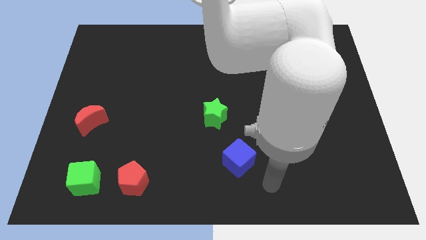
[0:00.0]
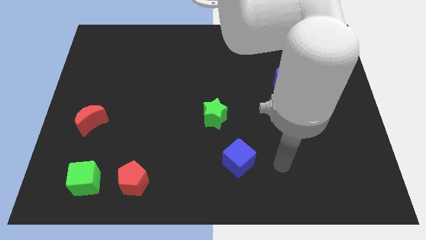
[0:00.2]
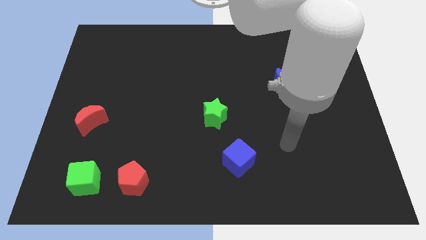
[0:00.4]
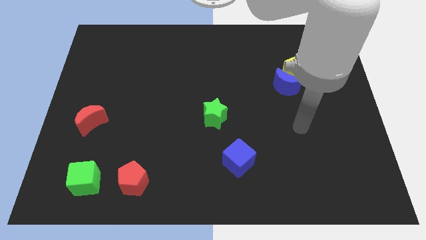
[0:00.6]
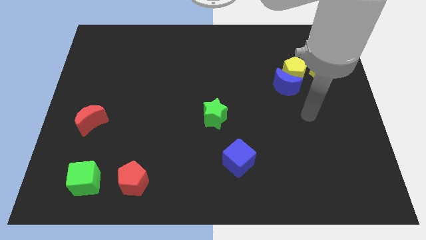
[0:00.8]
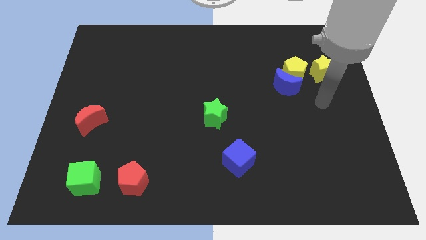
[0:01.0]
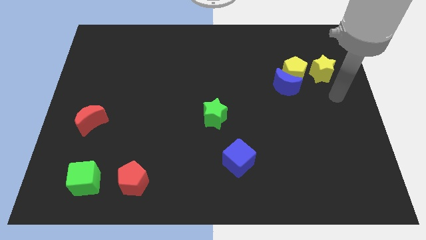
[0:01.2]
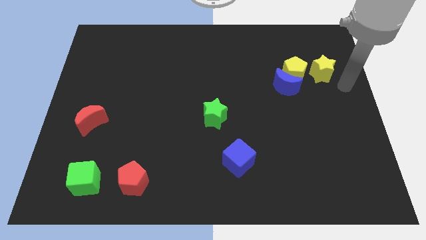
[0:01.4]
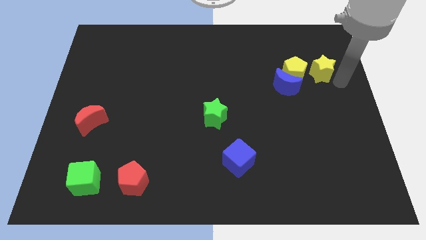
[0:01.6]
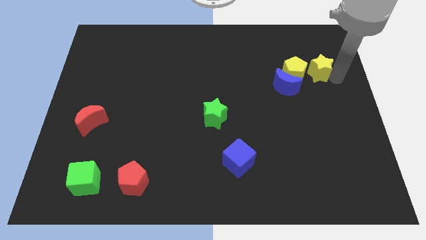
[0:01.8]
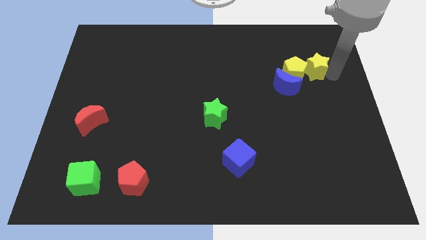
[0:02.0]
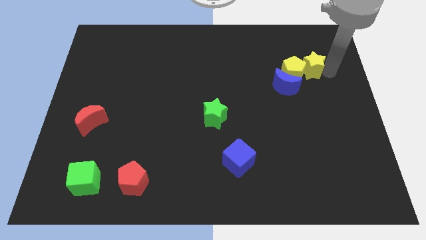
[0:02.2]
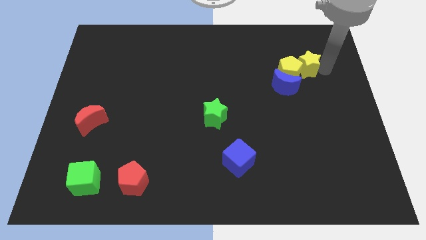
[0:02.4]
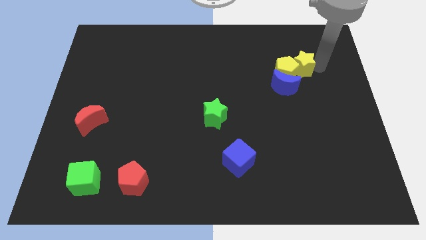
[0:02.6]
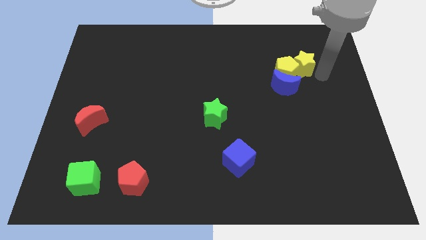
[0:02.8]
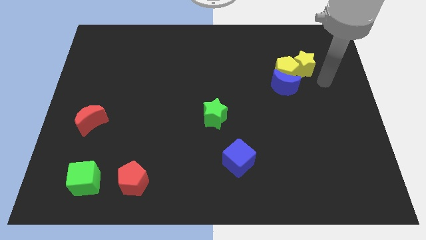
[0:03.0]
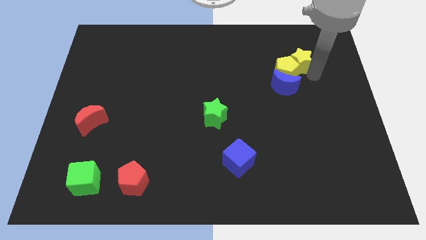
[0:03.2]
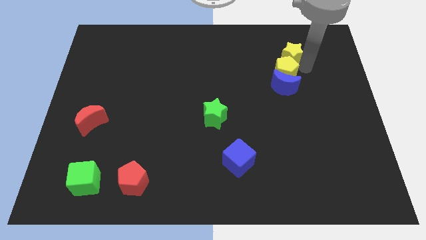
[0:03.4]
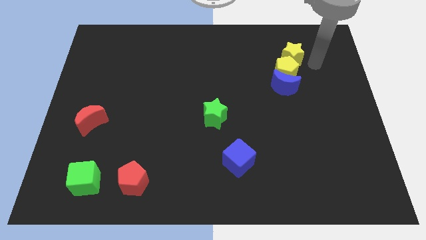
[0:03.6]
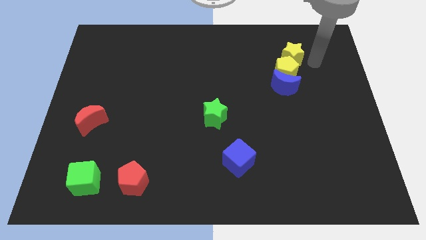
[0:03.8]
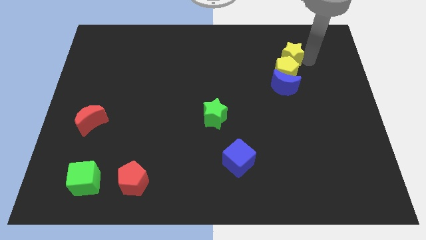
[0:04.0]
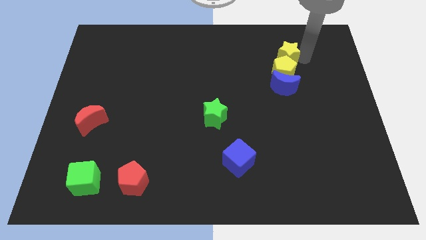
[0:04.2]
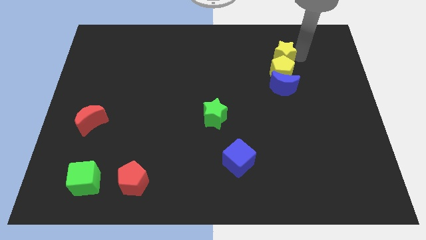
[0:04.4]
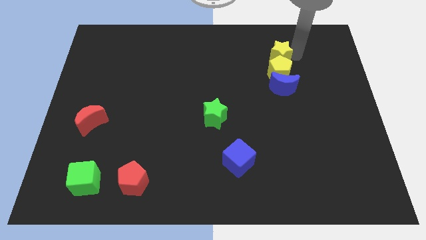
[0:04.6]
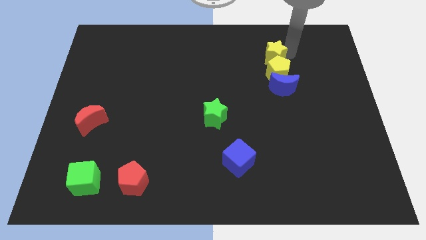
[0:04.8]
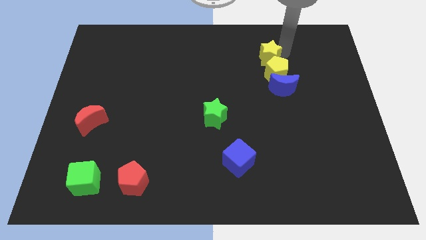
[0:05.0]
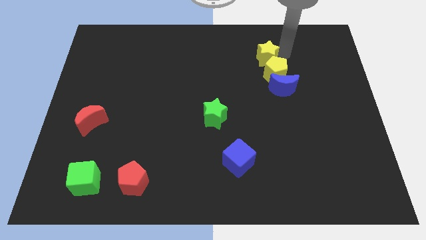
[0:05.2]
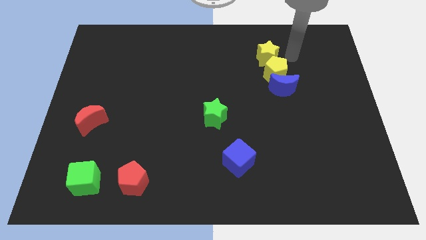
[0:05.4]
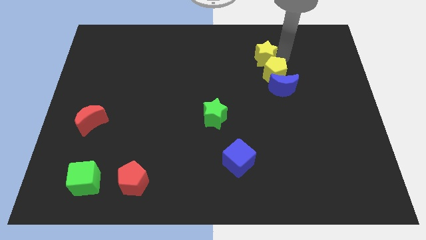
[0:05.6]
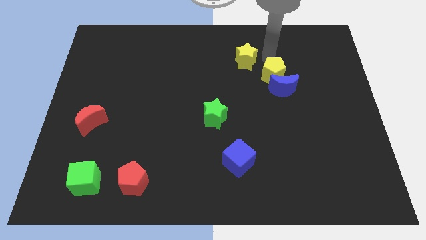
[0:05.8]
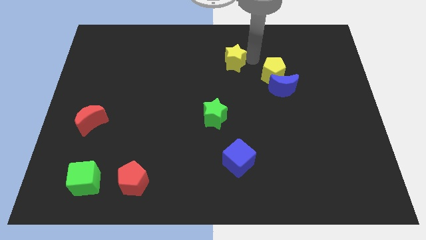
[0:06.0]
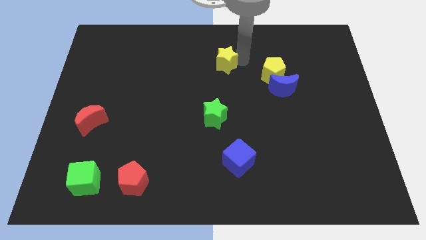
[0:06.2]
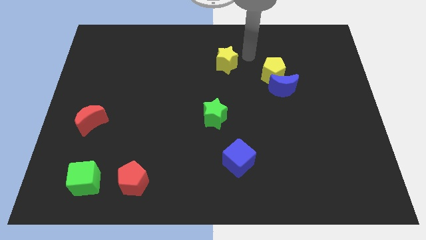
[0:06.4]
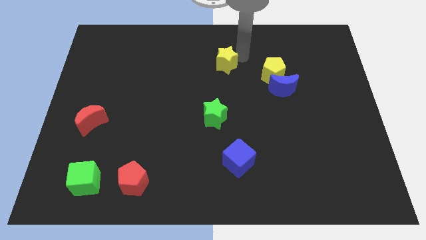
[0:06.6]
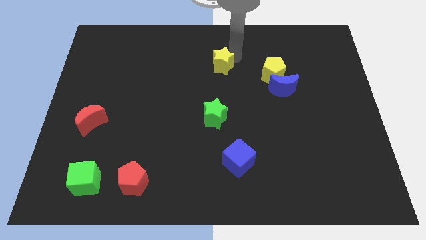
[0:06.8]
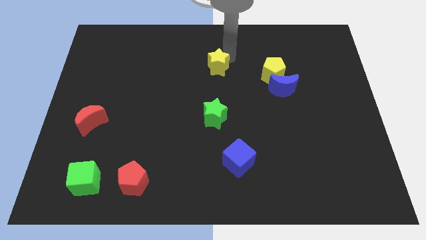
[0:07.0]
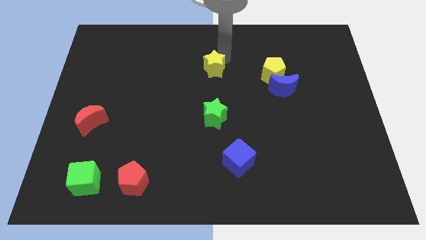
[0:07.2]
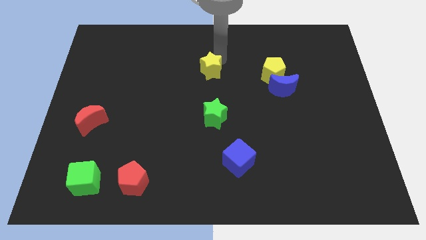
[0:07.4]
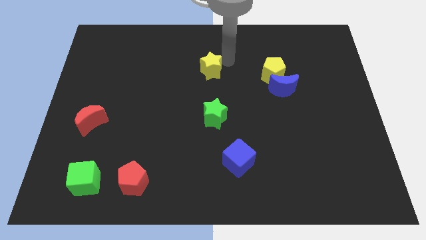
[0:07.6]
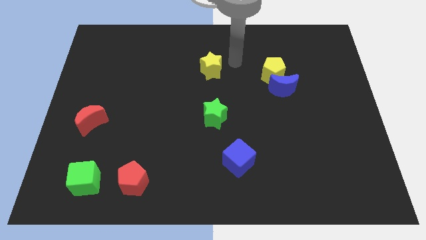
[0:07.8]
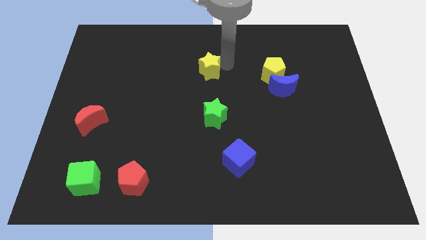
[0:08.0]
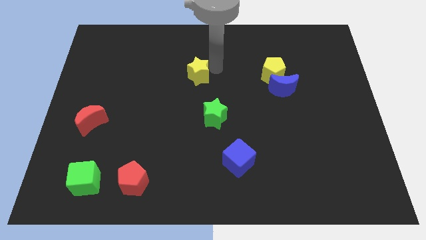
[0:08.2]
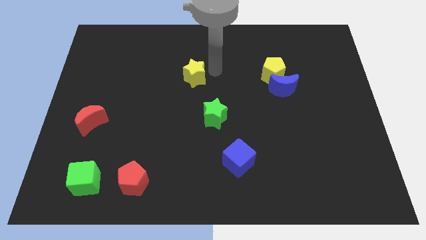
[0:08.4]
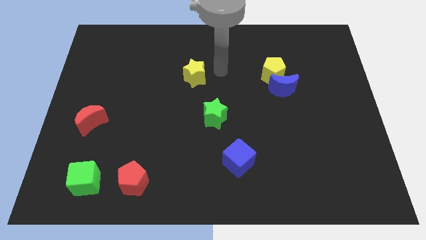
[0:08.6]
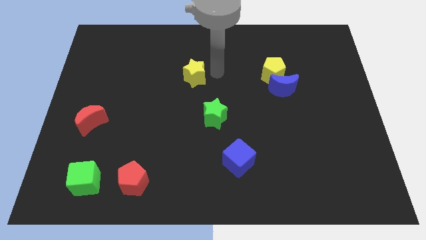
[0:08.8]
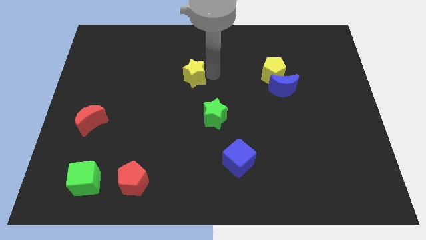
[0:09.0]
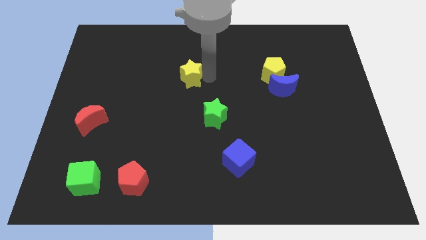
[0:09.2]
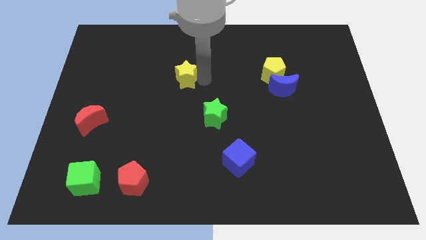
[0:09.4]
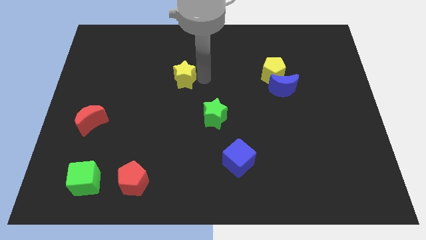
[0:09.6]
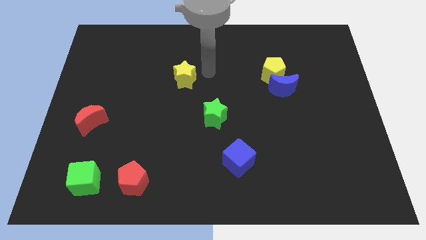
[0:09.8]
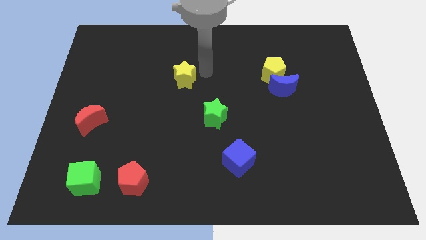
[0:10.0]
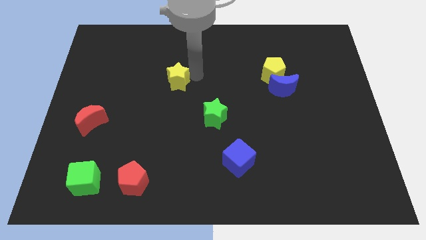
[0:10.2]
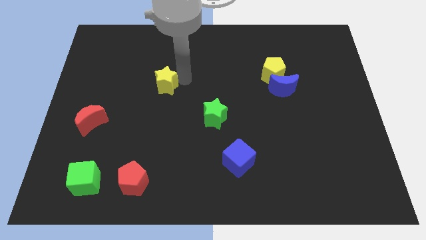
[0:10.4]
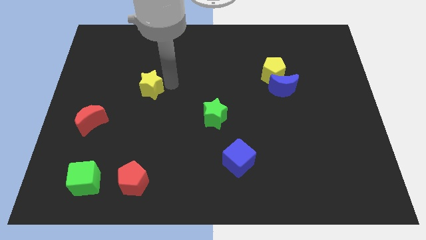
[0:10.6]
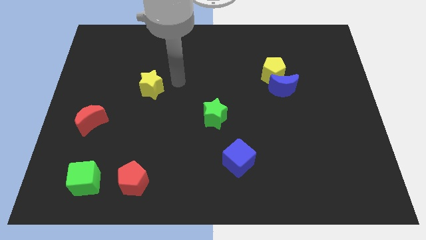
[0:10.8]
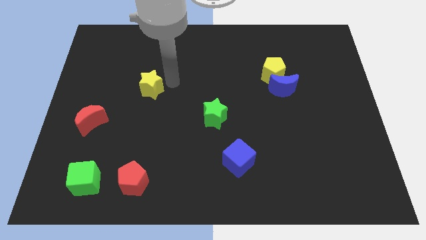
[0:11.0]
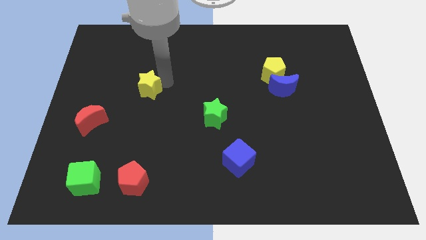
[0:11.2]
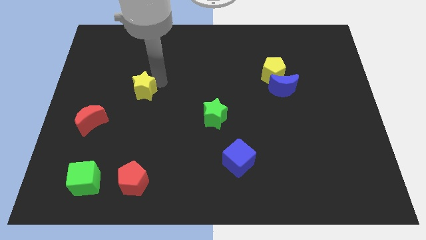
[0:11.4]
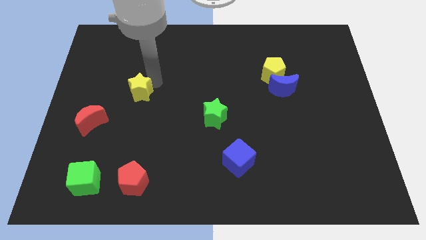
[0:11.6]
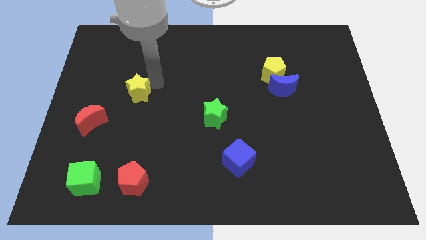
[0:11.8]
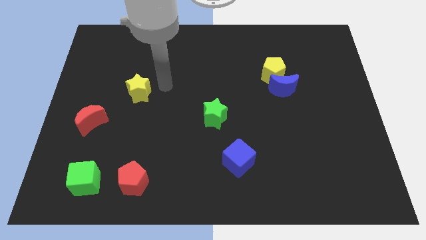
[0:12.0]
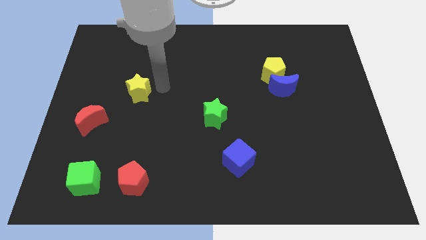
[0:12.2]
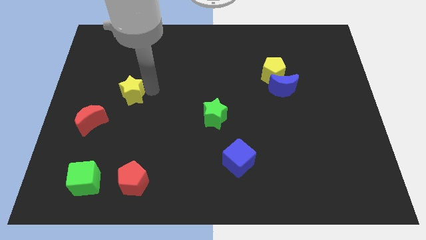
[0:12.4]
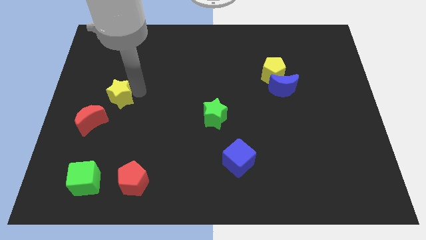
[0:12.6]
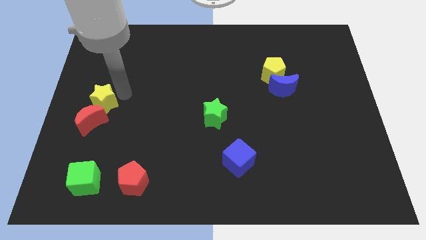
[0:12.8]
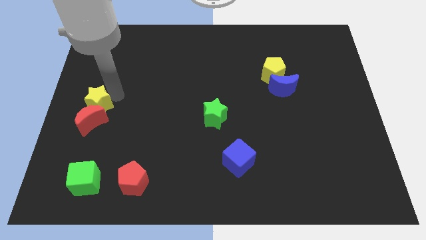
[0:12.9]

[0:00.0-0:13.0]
push the yellow star close to the red moon

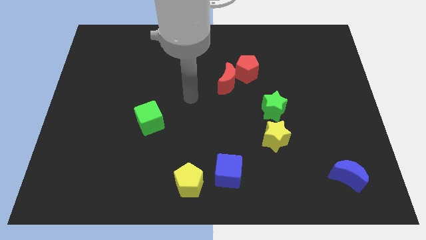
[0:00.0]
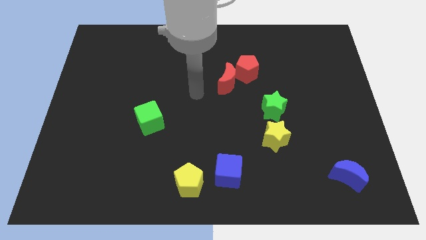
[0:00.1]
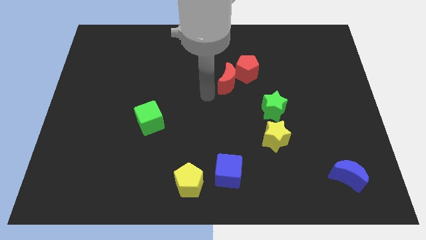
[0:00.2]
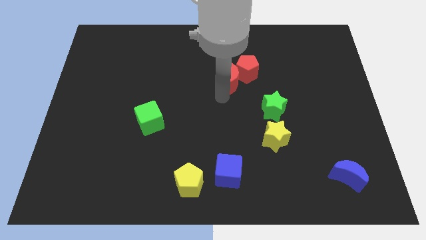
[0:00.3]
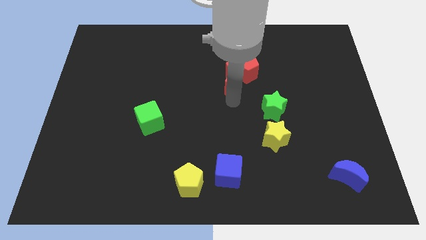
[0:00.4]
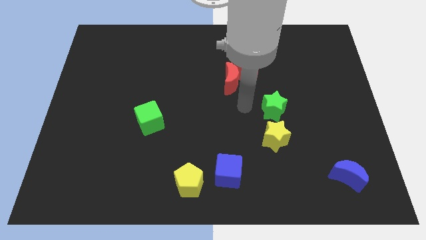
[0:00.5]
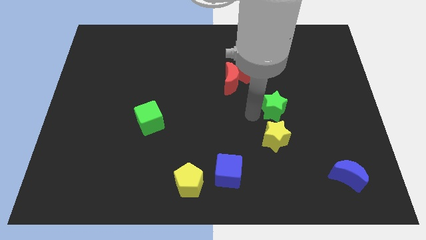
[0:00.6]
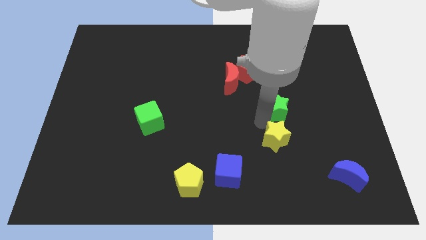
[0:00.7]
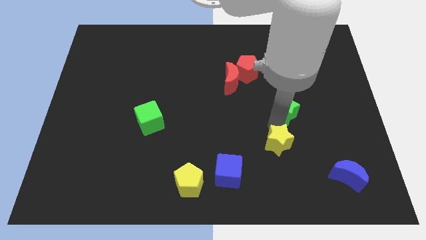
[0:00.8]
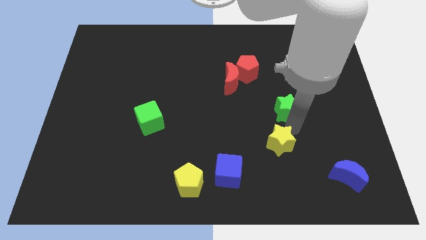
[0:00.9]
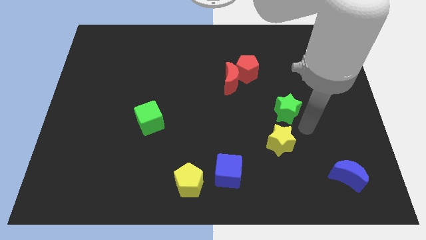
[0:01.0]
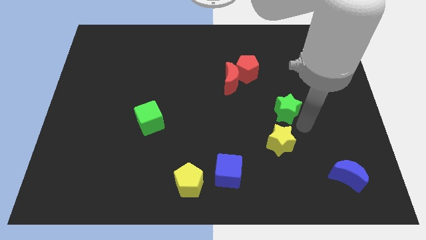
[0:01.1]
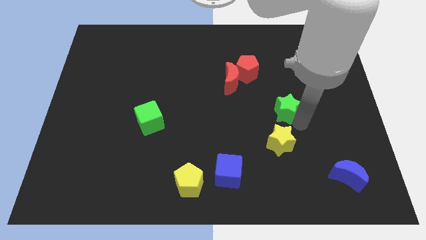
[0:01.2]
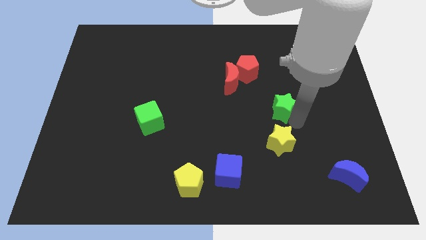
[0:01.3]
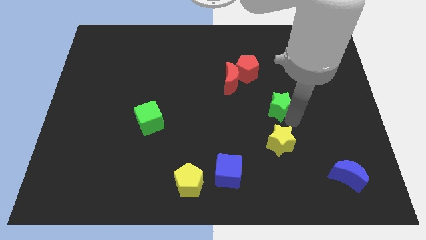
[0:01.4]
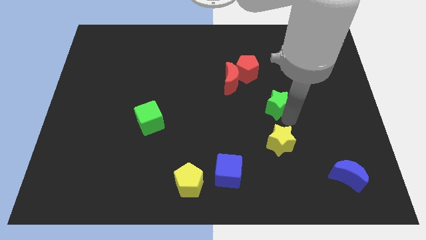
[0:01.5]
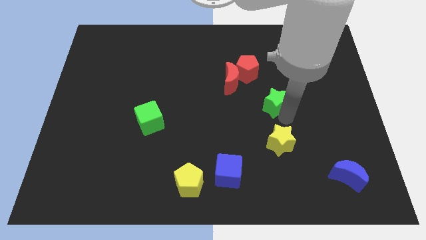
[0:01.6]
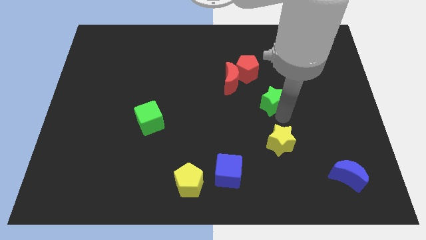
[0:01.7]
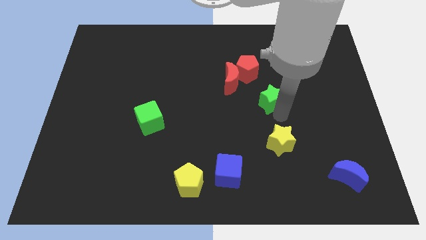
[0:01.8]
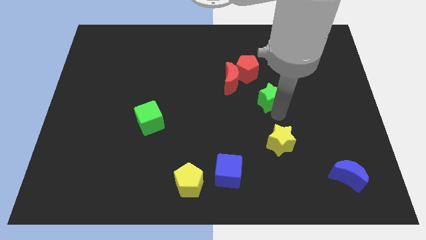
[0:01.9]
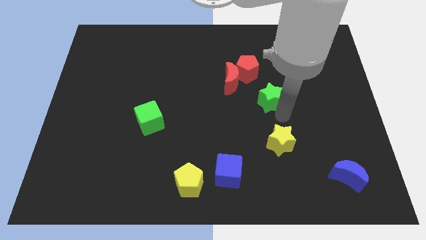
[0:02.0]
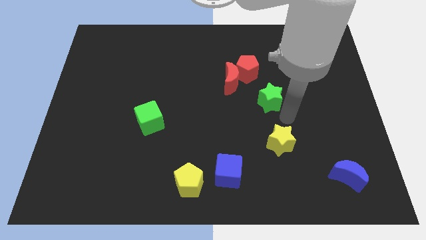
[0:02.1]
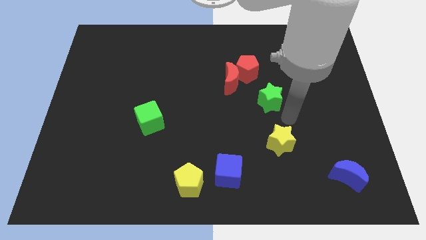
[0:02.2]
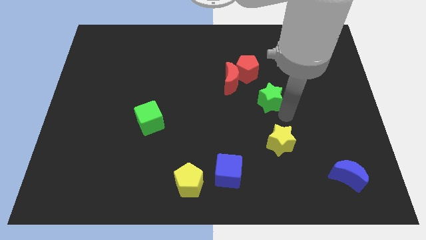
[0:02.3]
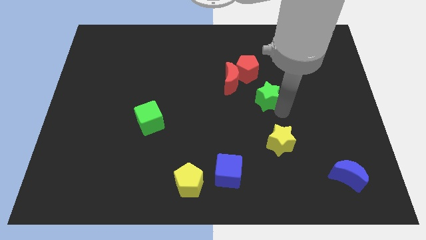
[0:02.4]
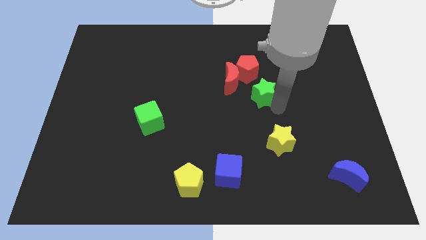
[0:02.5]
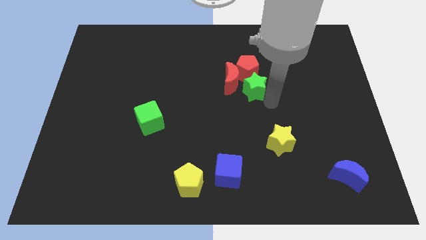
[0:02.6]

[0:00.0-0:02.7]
put the green star to the red pentagon
